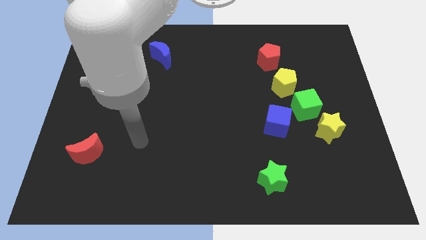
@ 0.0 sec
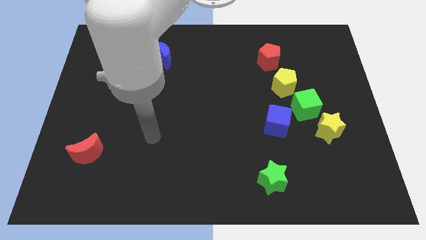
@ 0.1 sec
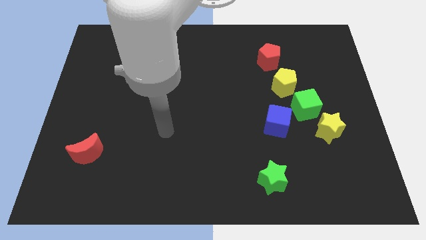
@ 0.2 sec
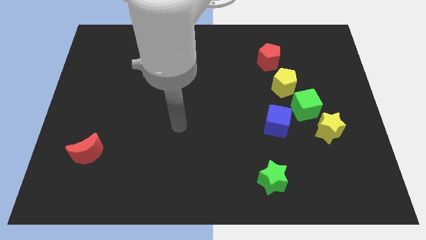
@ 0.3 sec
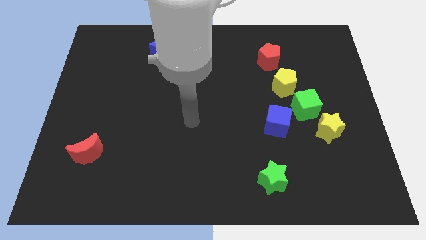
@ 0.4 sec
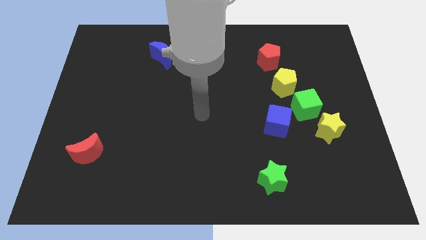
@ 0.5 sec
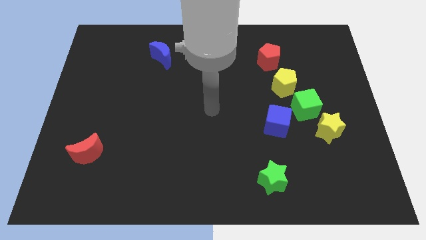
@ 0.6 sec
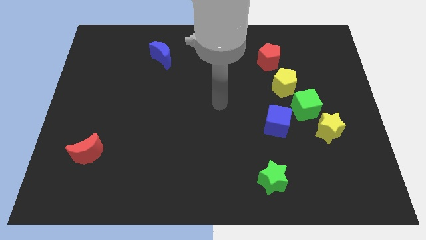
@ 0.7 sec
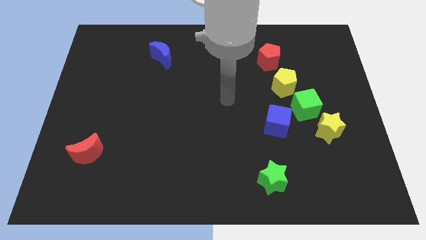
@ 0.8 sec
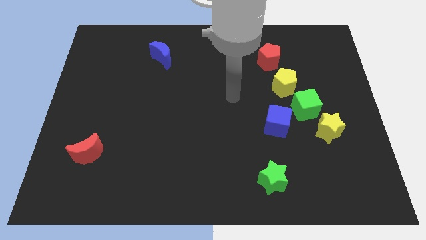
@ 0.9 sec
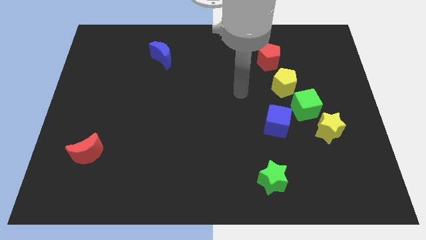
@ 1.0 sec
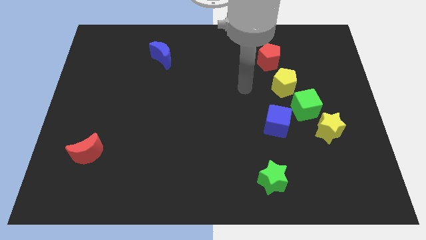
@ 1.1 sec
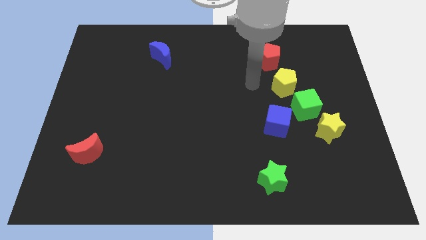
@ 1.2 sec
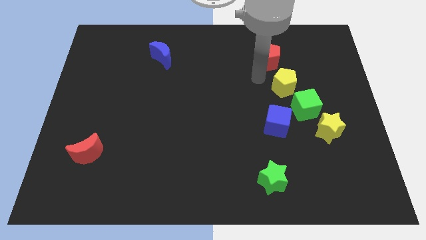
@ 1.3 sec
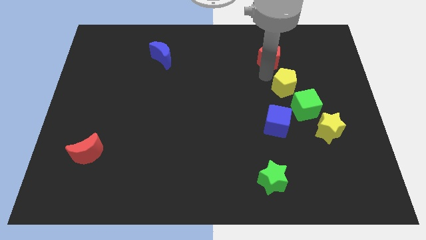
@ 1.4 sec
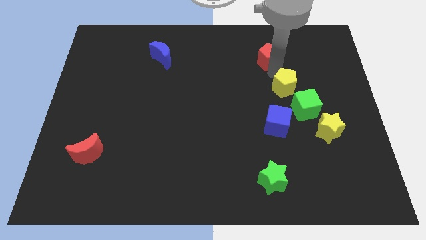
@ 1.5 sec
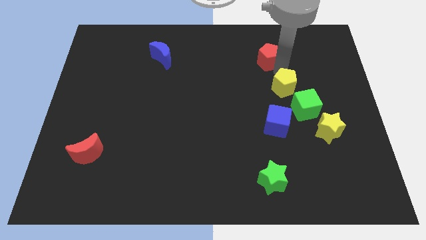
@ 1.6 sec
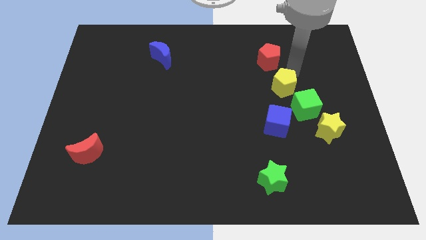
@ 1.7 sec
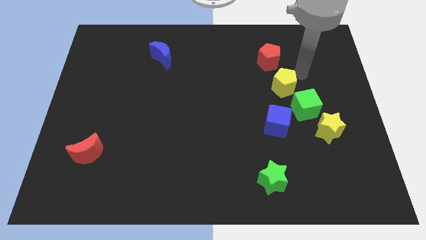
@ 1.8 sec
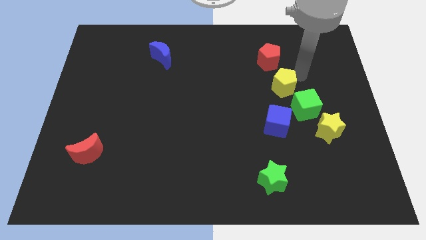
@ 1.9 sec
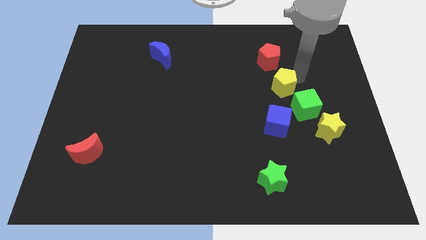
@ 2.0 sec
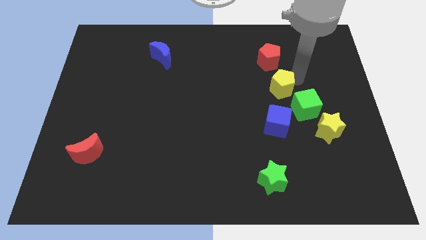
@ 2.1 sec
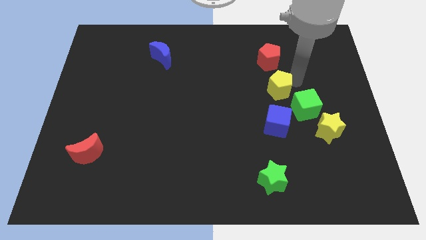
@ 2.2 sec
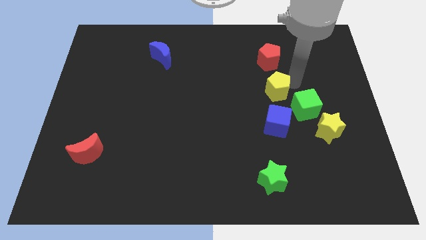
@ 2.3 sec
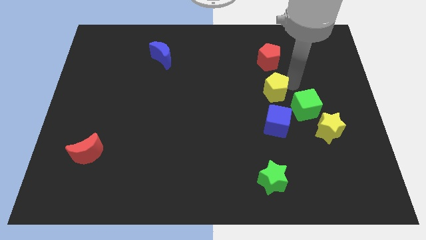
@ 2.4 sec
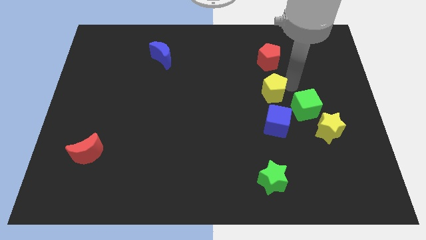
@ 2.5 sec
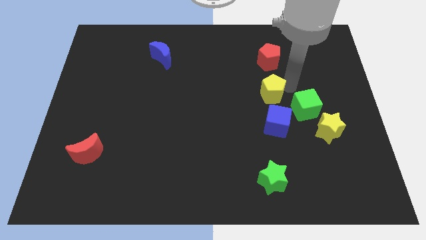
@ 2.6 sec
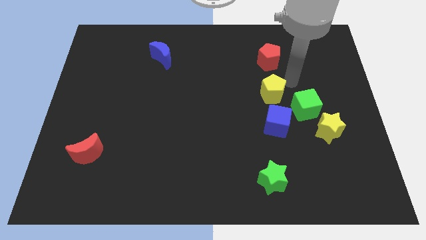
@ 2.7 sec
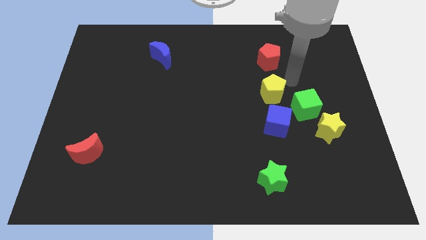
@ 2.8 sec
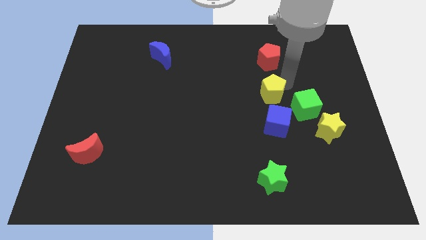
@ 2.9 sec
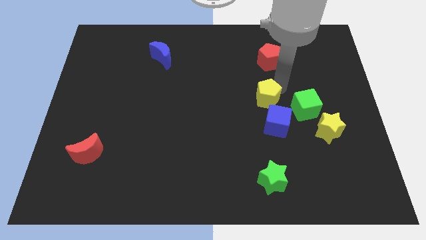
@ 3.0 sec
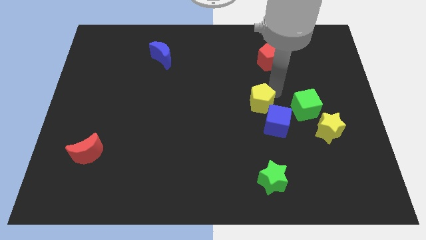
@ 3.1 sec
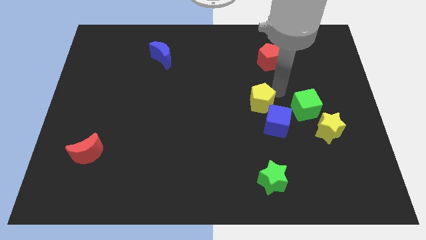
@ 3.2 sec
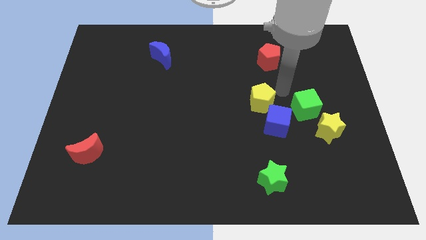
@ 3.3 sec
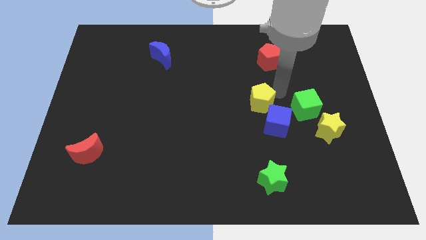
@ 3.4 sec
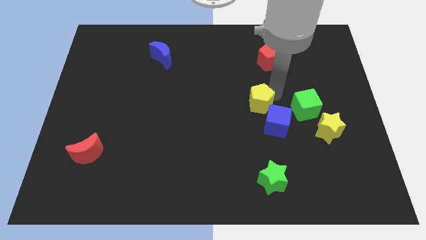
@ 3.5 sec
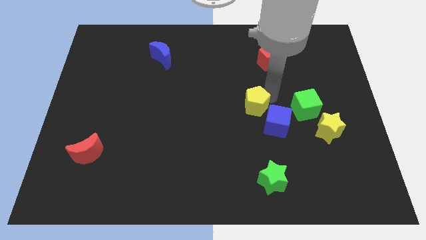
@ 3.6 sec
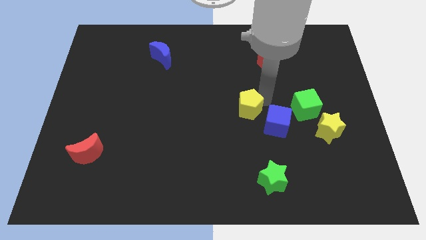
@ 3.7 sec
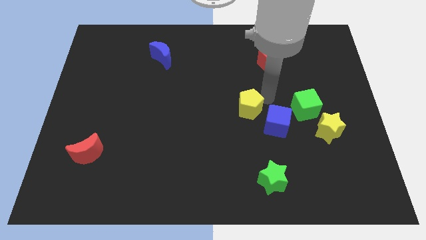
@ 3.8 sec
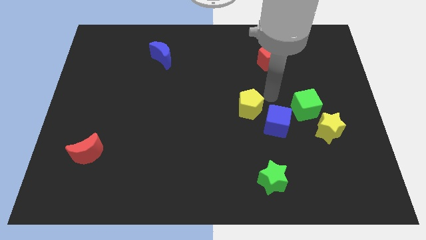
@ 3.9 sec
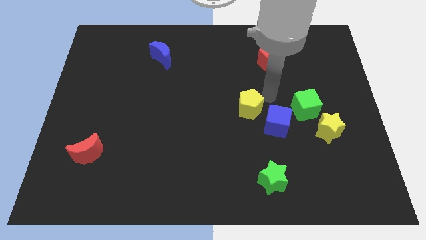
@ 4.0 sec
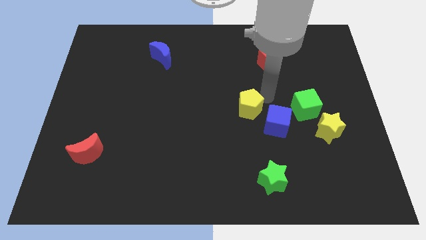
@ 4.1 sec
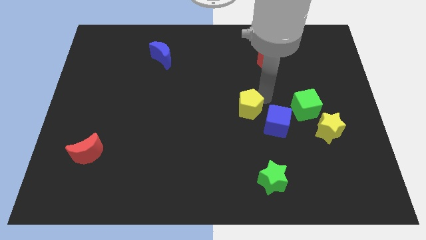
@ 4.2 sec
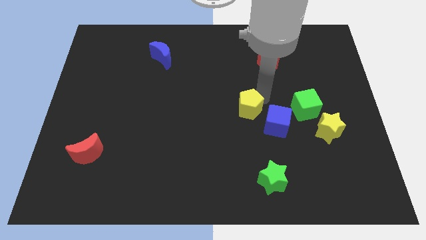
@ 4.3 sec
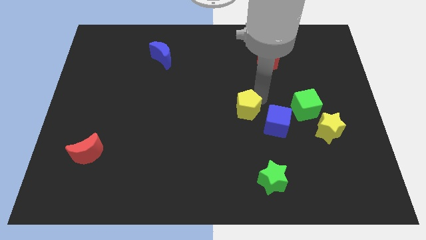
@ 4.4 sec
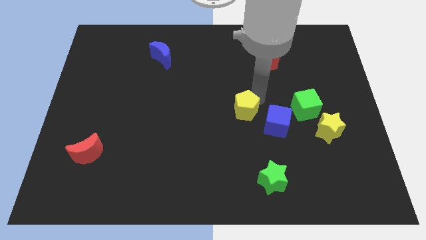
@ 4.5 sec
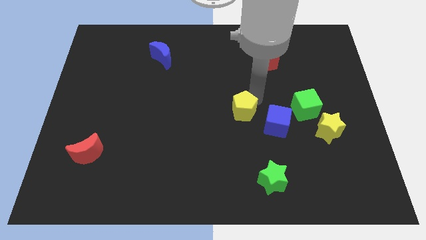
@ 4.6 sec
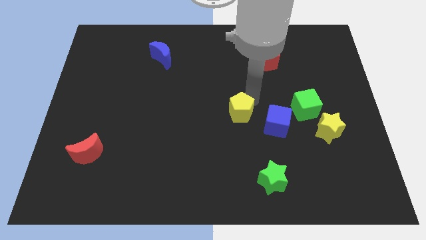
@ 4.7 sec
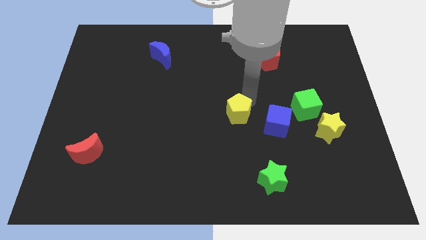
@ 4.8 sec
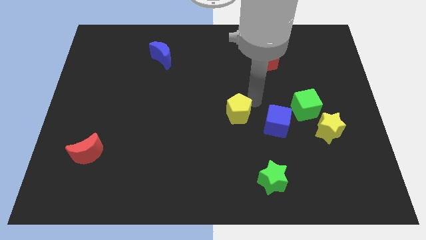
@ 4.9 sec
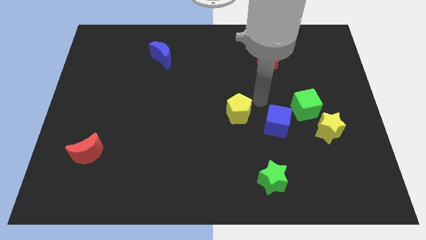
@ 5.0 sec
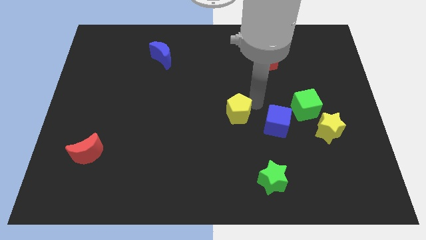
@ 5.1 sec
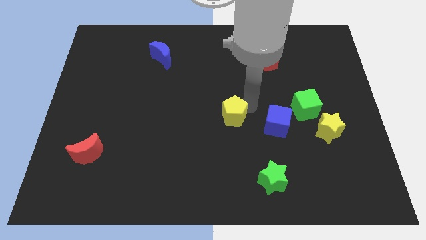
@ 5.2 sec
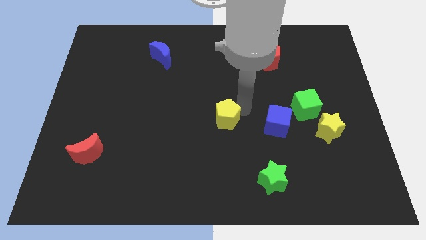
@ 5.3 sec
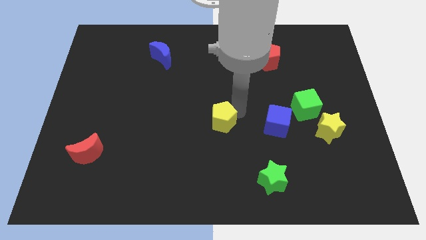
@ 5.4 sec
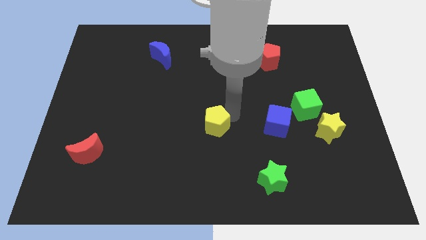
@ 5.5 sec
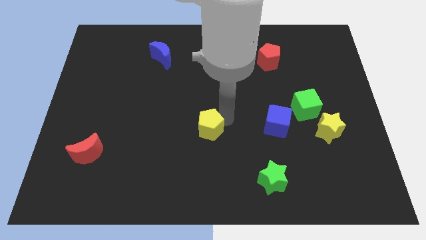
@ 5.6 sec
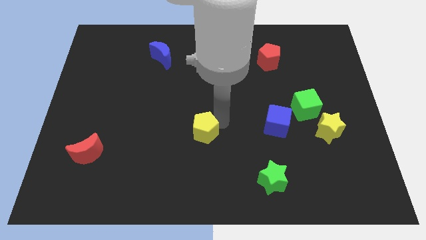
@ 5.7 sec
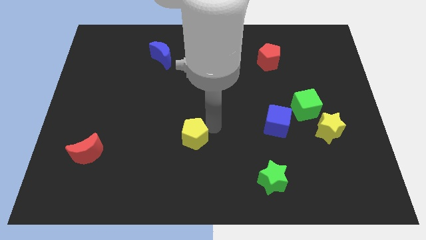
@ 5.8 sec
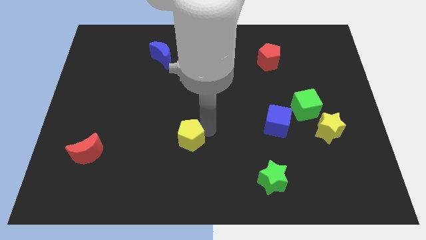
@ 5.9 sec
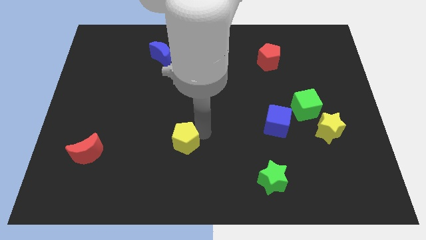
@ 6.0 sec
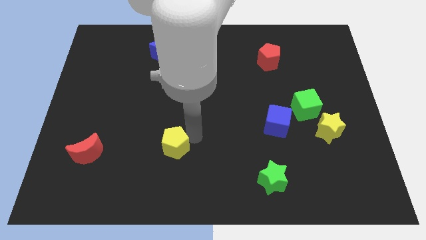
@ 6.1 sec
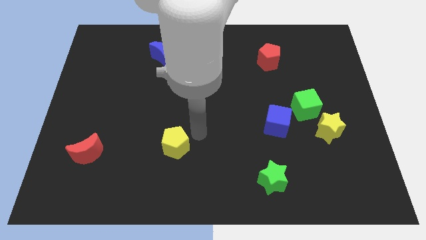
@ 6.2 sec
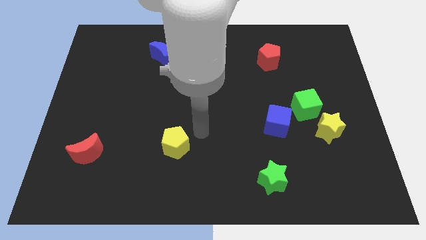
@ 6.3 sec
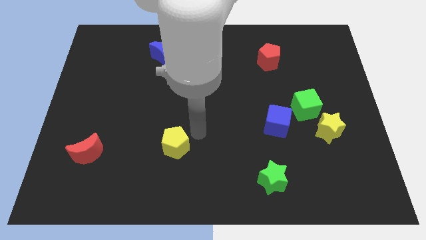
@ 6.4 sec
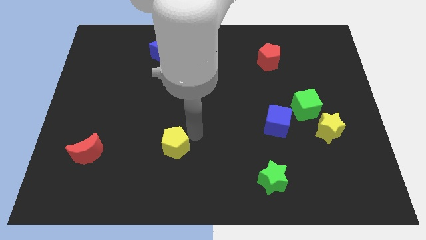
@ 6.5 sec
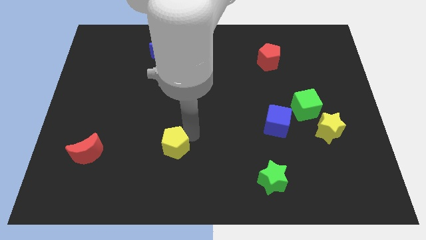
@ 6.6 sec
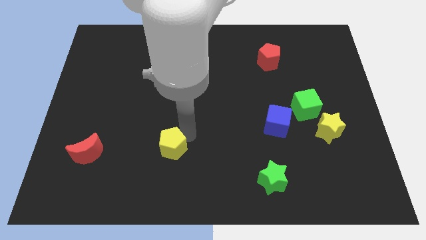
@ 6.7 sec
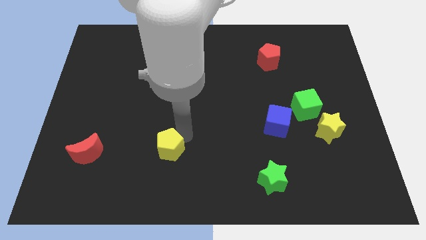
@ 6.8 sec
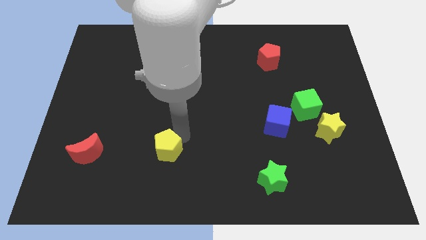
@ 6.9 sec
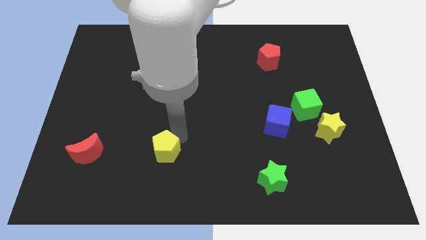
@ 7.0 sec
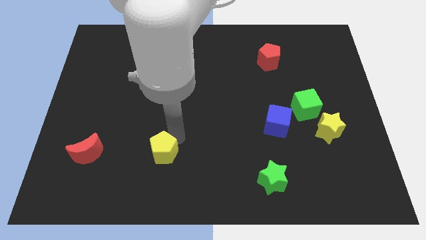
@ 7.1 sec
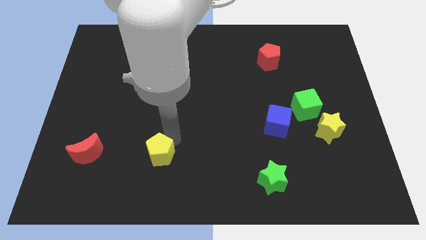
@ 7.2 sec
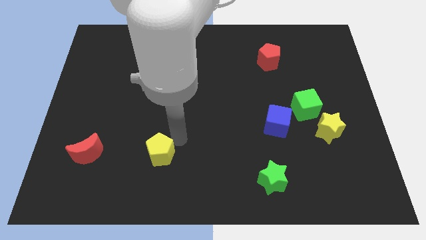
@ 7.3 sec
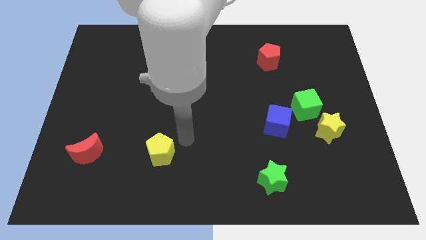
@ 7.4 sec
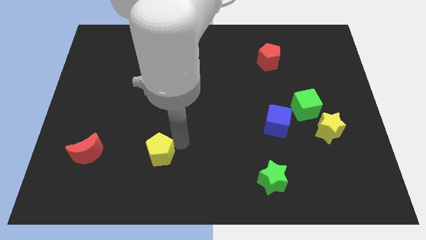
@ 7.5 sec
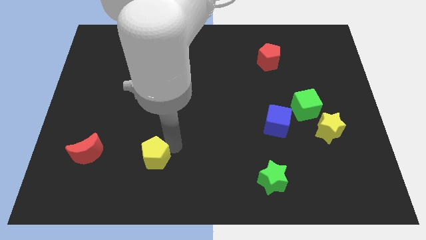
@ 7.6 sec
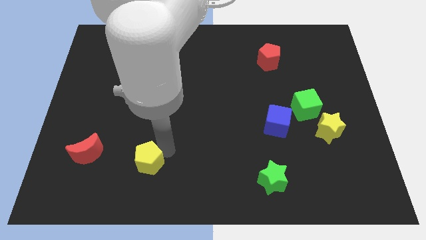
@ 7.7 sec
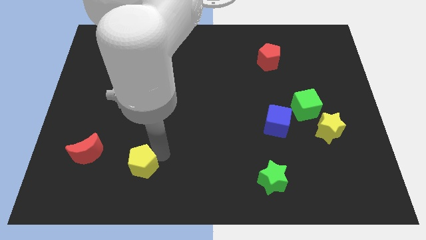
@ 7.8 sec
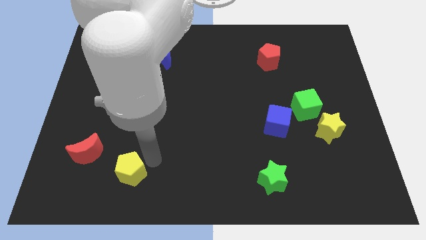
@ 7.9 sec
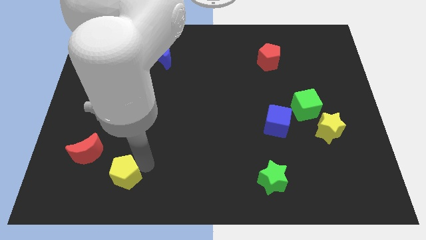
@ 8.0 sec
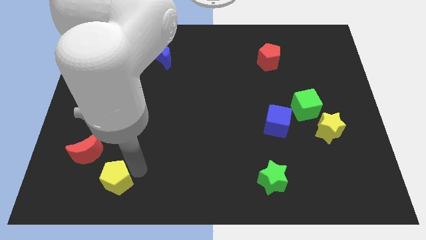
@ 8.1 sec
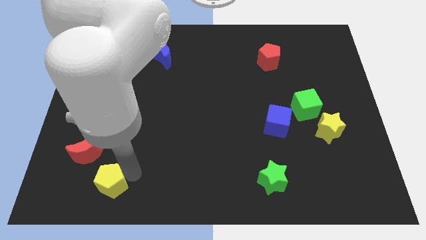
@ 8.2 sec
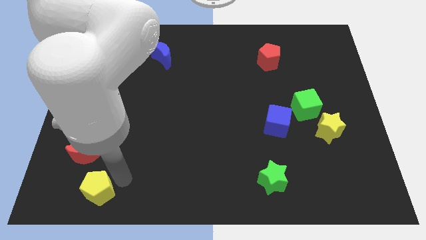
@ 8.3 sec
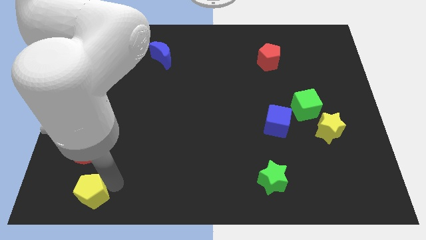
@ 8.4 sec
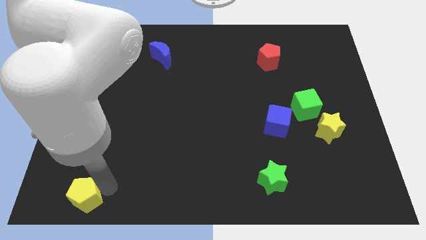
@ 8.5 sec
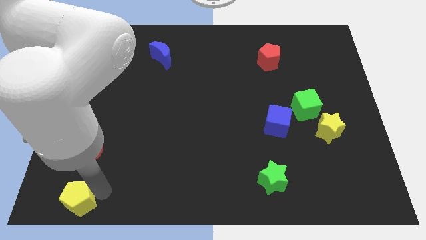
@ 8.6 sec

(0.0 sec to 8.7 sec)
slide the yellow pentagon to the bottom left corner
